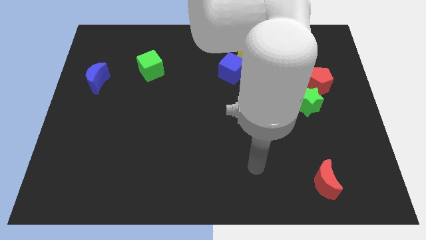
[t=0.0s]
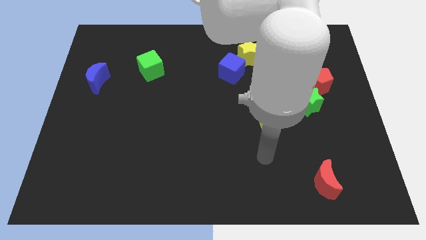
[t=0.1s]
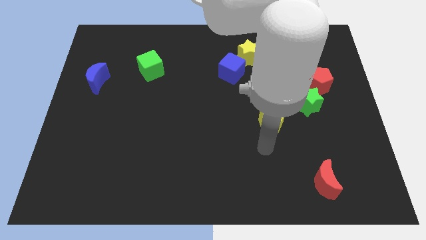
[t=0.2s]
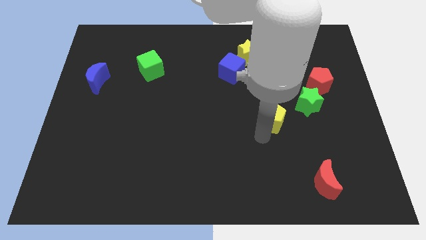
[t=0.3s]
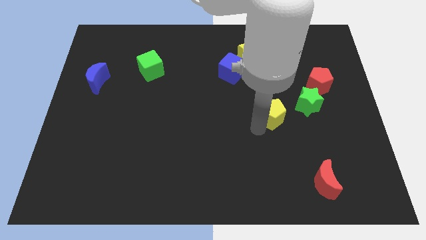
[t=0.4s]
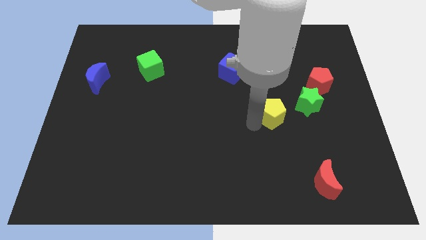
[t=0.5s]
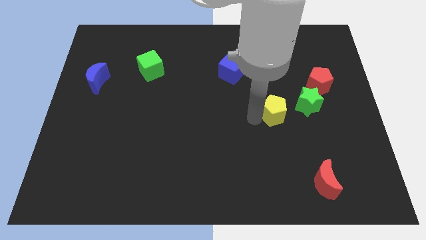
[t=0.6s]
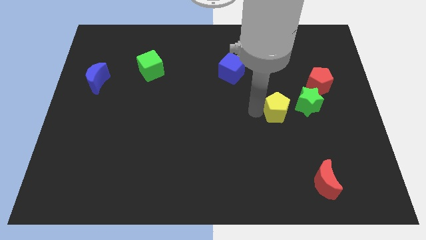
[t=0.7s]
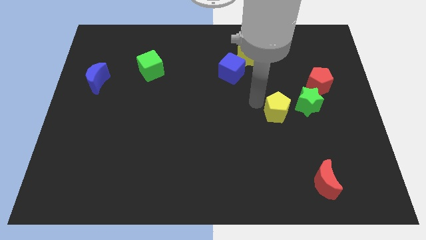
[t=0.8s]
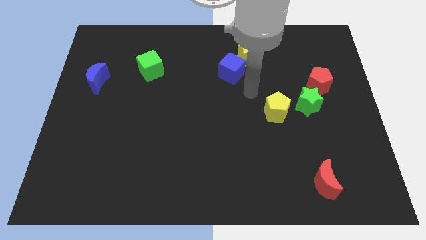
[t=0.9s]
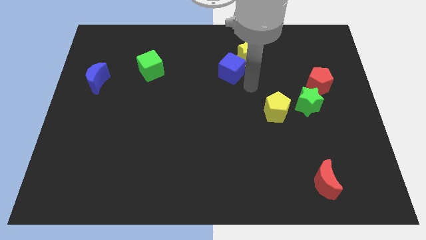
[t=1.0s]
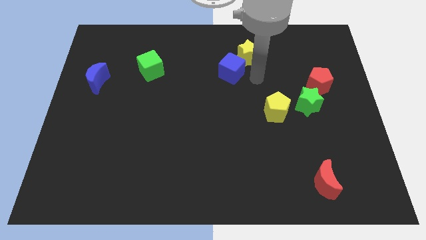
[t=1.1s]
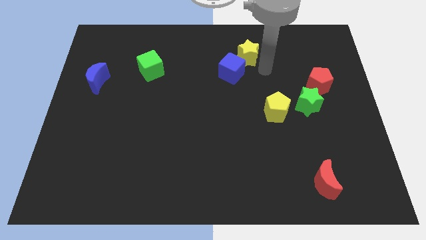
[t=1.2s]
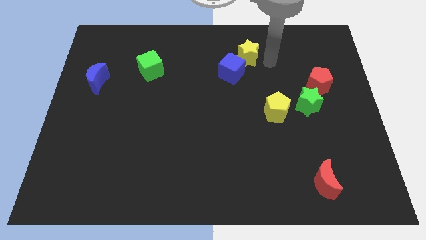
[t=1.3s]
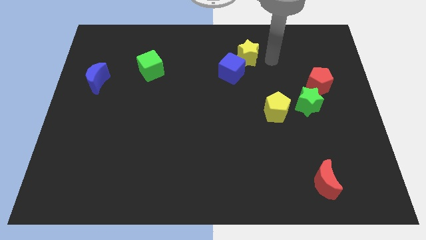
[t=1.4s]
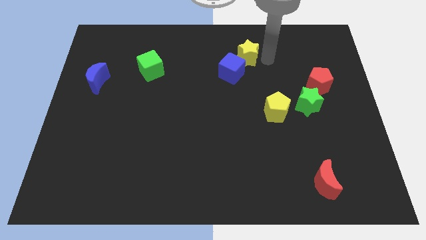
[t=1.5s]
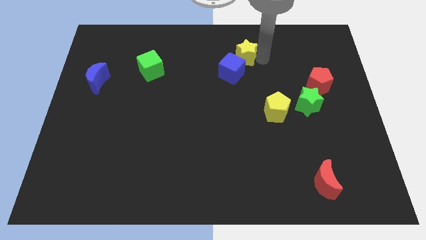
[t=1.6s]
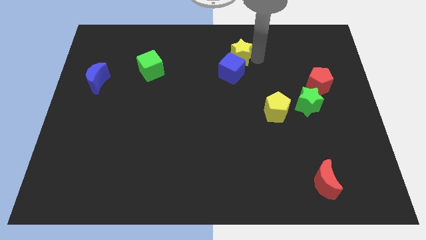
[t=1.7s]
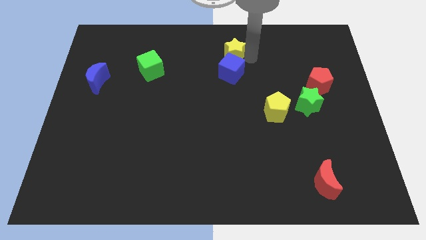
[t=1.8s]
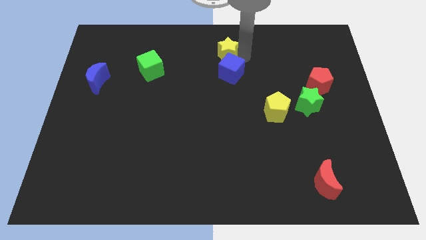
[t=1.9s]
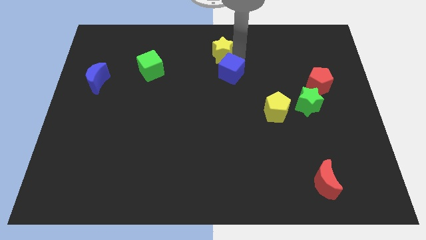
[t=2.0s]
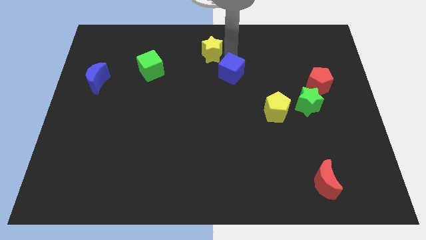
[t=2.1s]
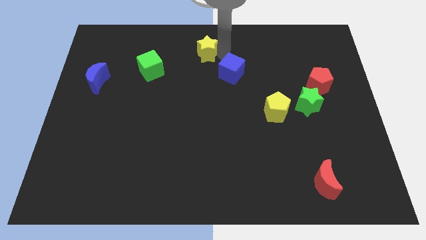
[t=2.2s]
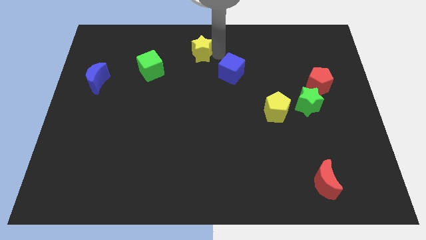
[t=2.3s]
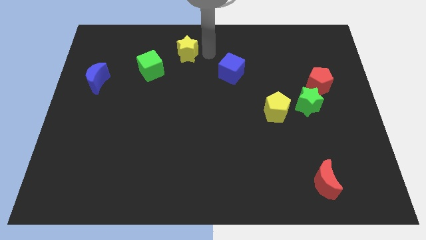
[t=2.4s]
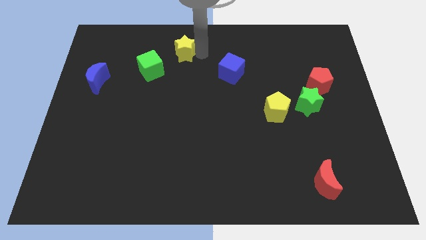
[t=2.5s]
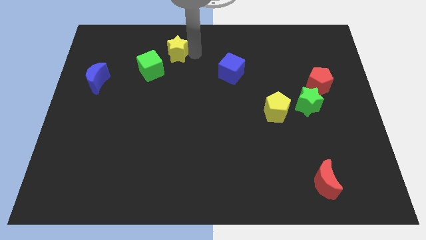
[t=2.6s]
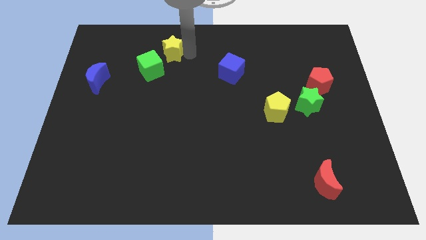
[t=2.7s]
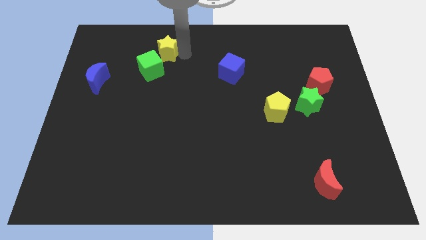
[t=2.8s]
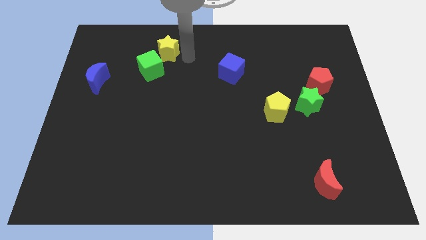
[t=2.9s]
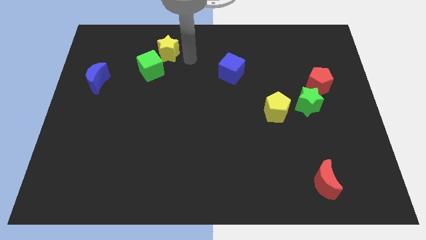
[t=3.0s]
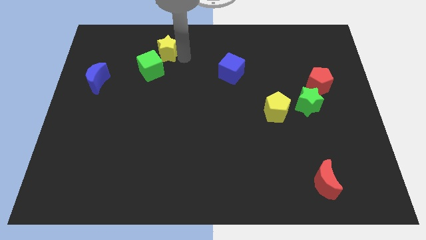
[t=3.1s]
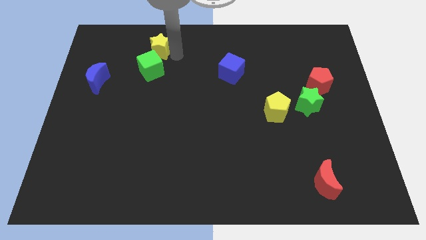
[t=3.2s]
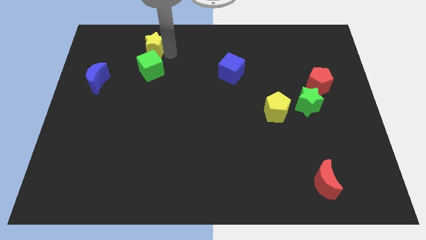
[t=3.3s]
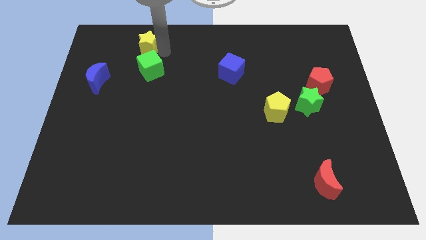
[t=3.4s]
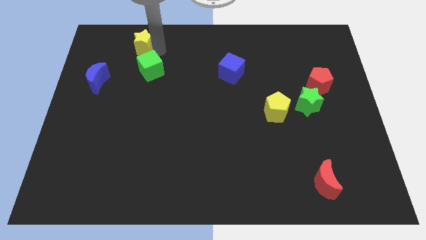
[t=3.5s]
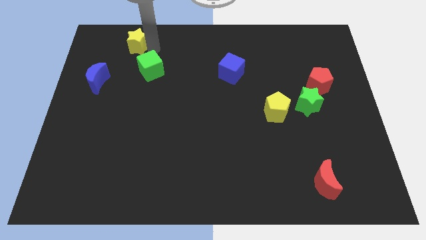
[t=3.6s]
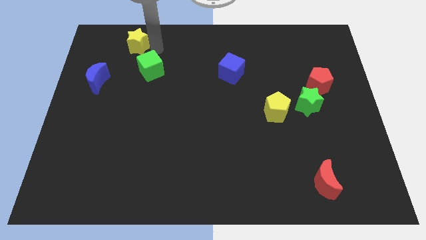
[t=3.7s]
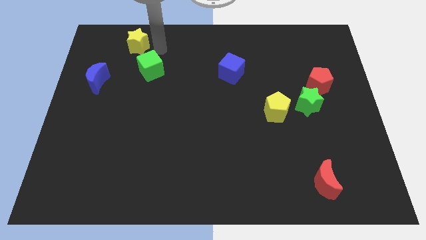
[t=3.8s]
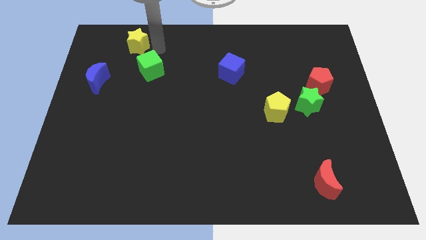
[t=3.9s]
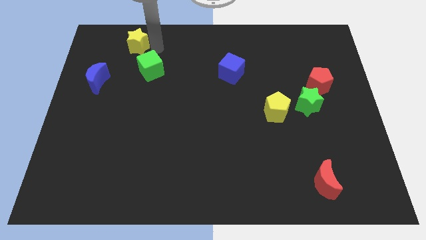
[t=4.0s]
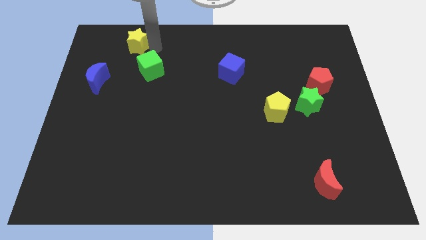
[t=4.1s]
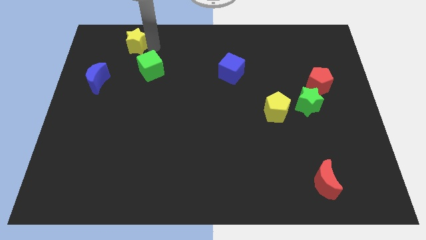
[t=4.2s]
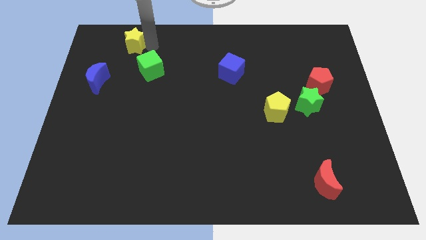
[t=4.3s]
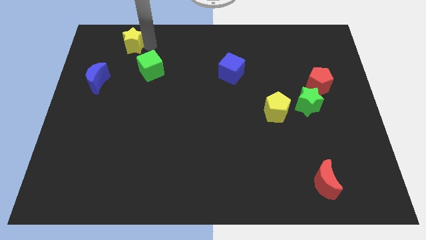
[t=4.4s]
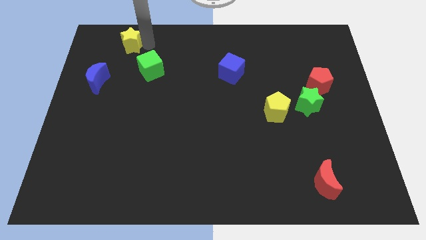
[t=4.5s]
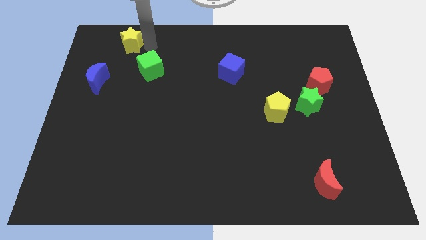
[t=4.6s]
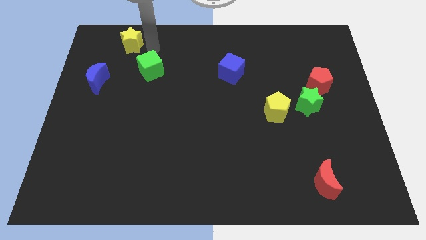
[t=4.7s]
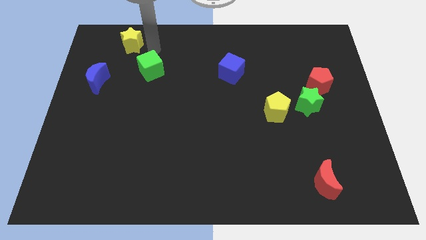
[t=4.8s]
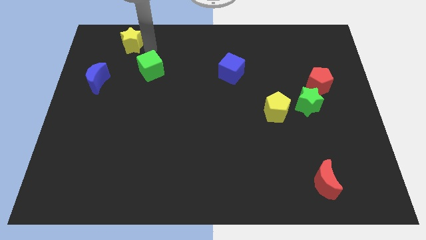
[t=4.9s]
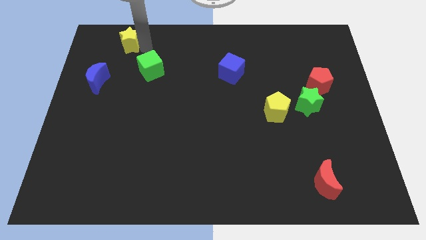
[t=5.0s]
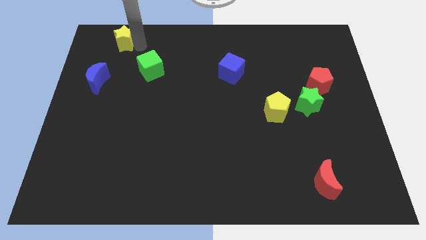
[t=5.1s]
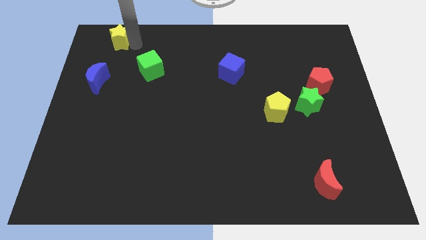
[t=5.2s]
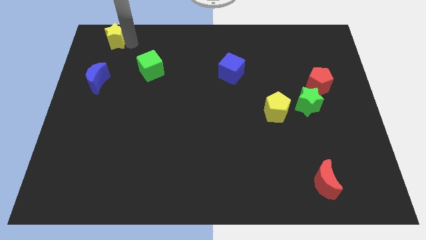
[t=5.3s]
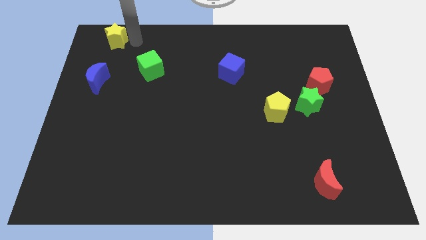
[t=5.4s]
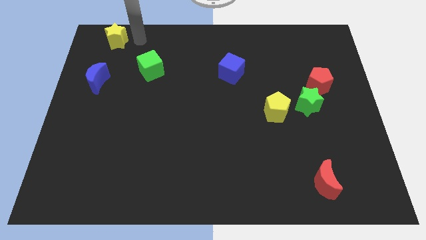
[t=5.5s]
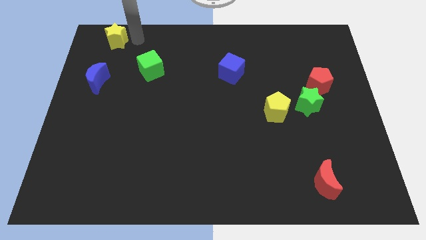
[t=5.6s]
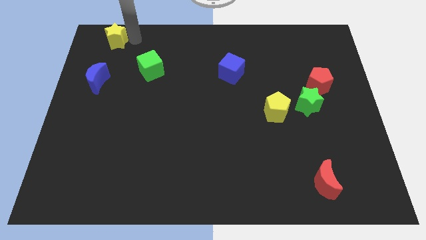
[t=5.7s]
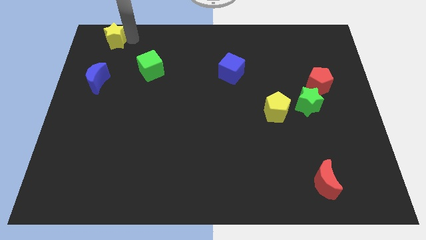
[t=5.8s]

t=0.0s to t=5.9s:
slide the yellow star to the top left corner
